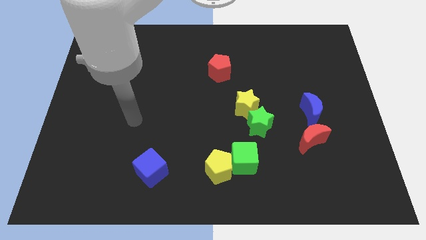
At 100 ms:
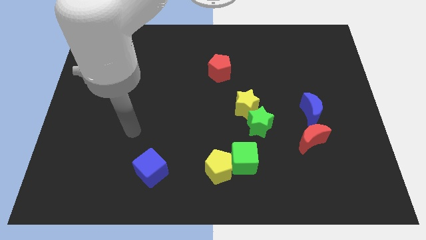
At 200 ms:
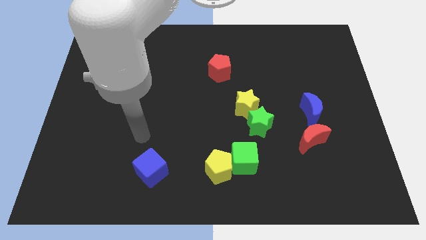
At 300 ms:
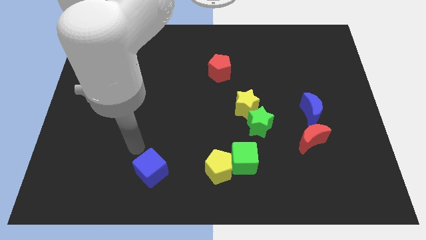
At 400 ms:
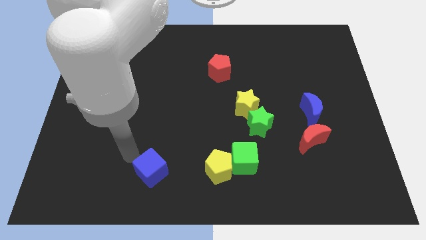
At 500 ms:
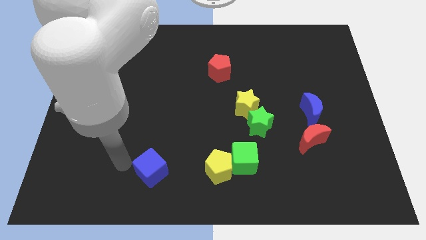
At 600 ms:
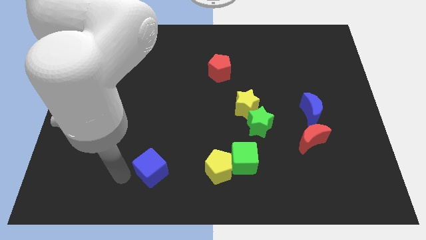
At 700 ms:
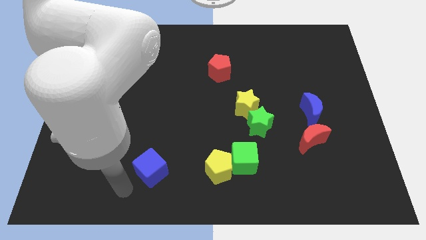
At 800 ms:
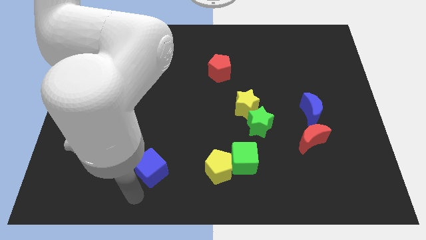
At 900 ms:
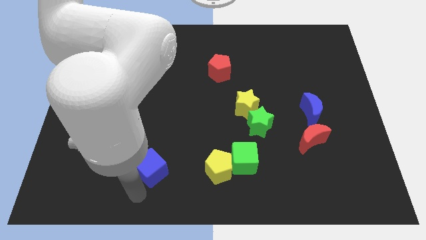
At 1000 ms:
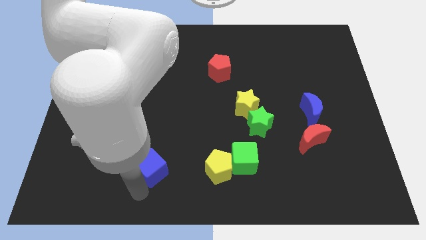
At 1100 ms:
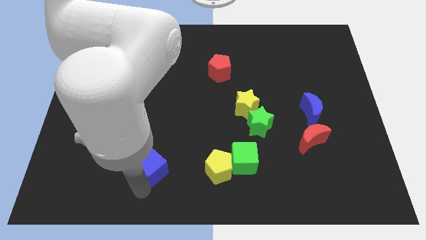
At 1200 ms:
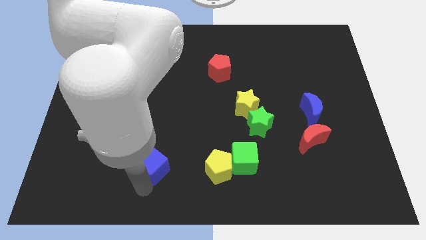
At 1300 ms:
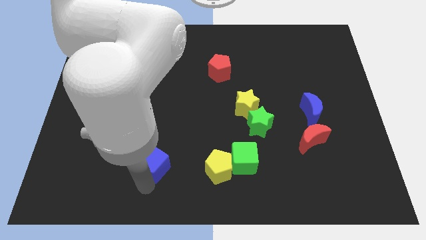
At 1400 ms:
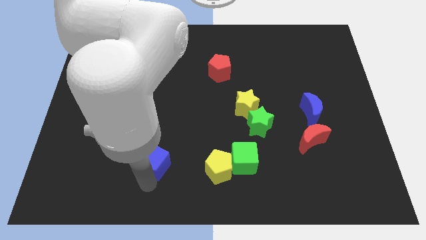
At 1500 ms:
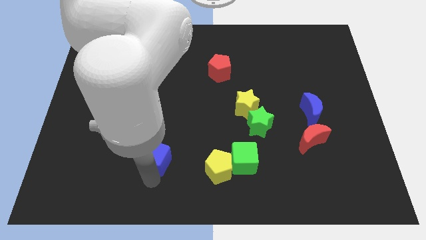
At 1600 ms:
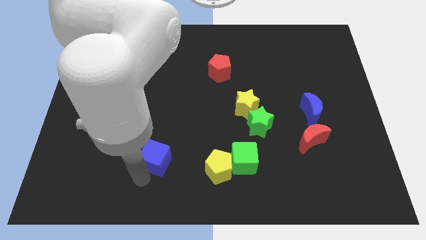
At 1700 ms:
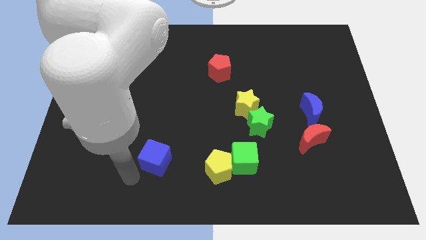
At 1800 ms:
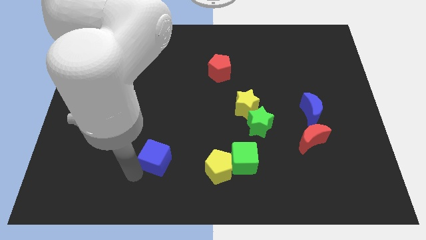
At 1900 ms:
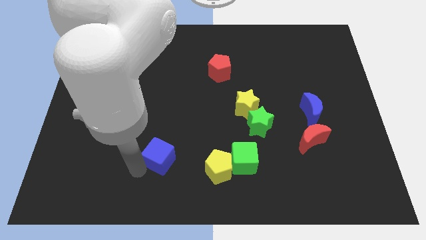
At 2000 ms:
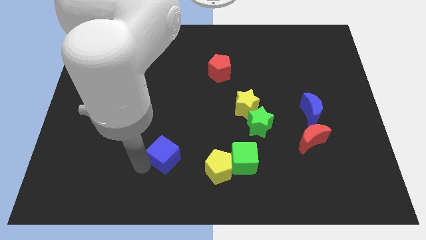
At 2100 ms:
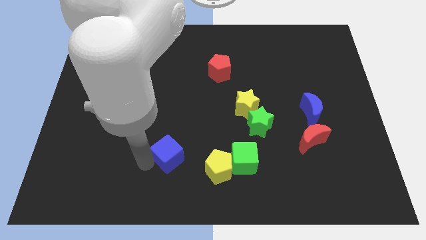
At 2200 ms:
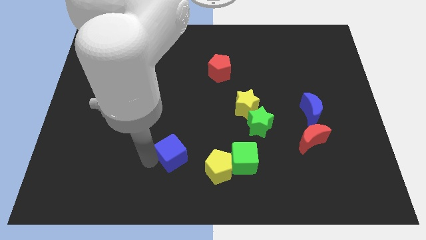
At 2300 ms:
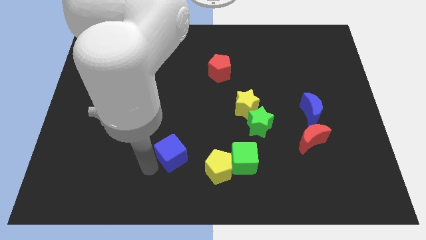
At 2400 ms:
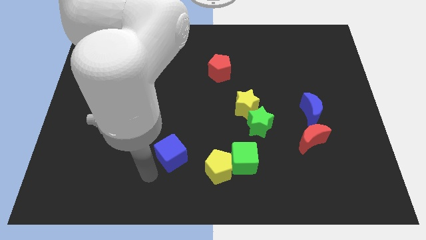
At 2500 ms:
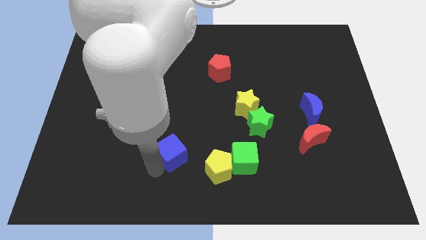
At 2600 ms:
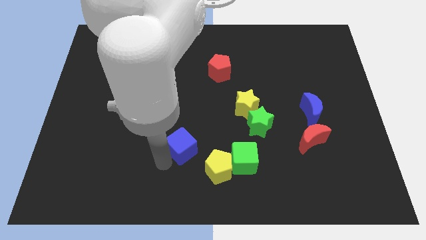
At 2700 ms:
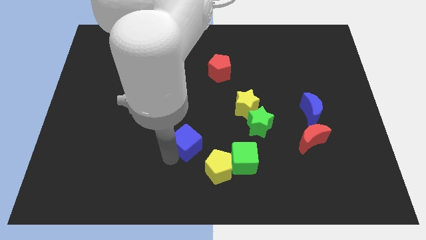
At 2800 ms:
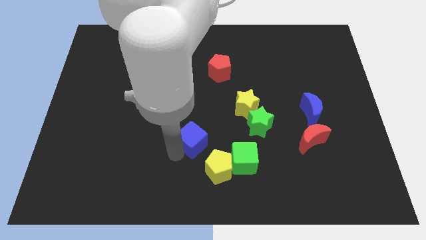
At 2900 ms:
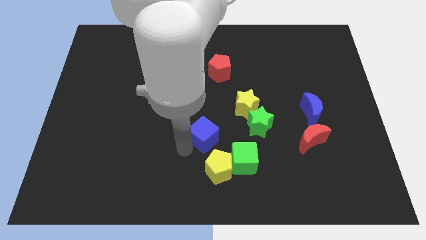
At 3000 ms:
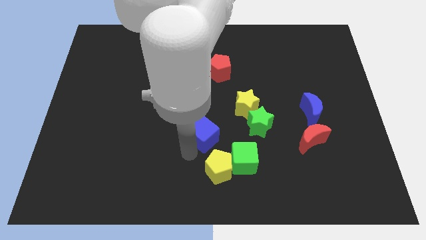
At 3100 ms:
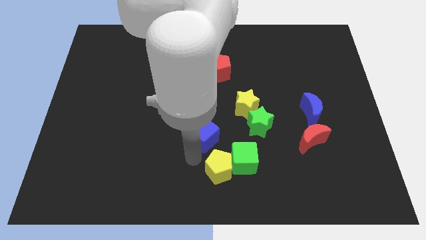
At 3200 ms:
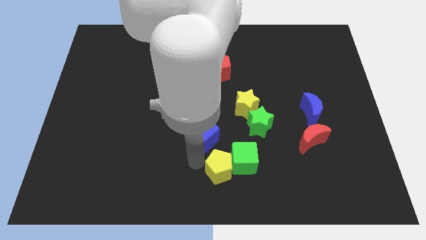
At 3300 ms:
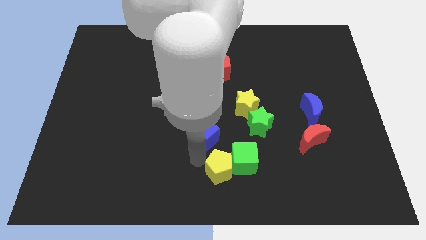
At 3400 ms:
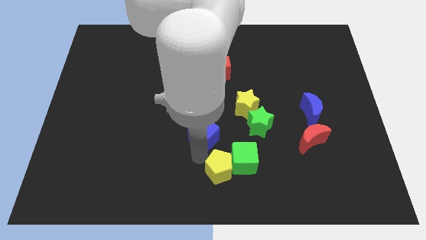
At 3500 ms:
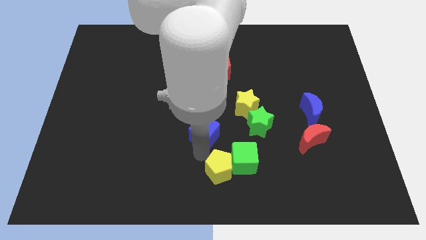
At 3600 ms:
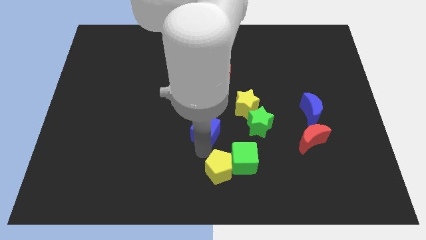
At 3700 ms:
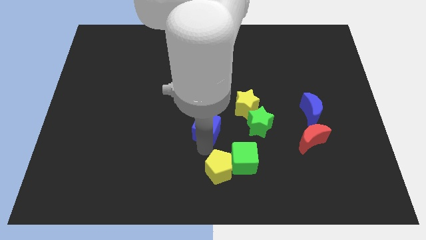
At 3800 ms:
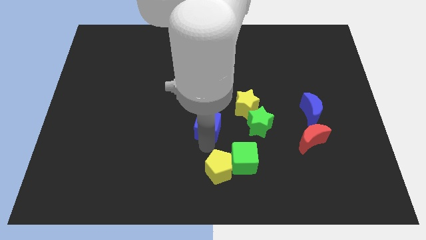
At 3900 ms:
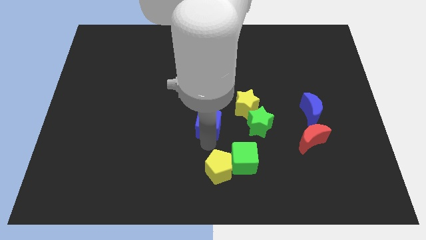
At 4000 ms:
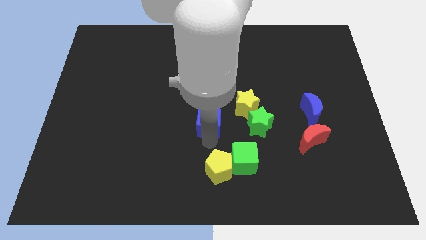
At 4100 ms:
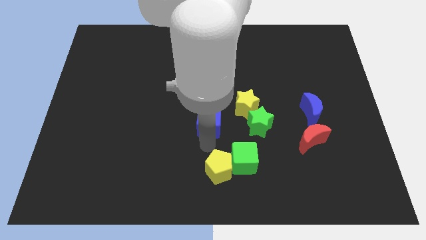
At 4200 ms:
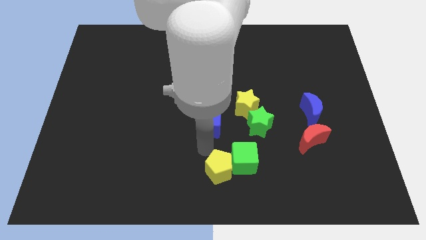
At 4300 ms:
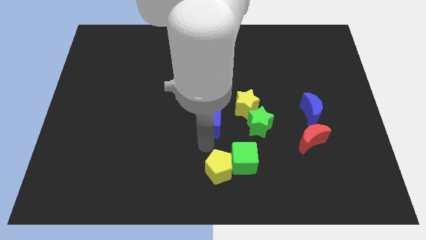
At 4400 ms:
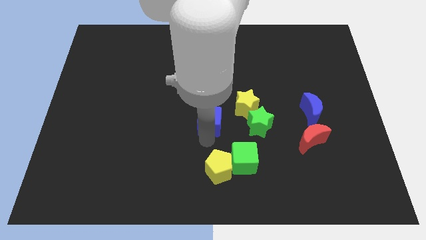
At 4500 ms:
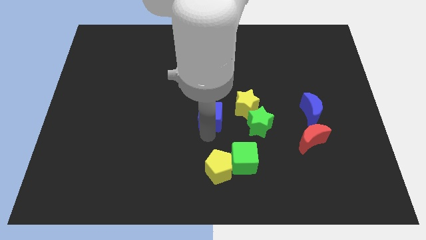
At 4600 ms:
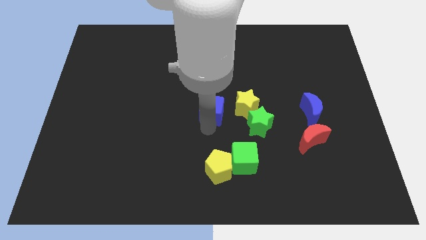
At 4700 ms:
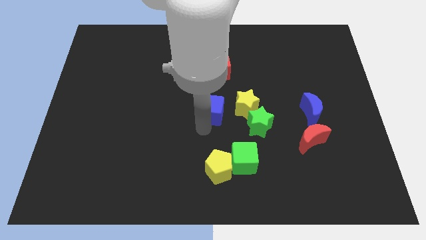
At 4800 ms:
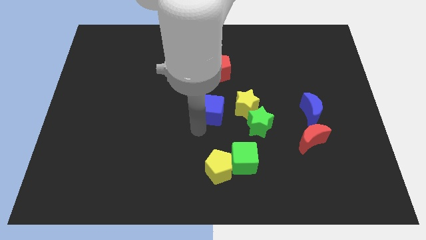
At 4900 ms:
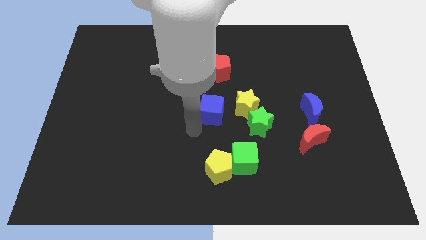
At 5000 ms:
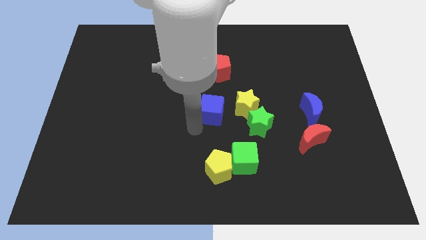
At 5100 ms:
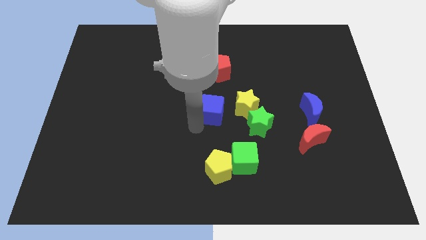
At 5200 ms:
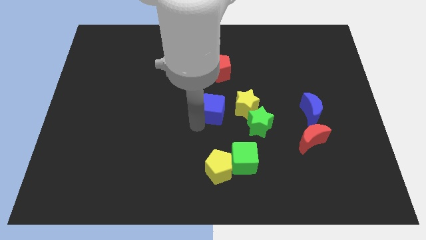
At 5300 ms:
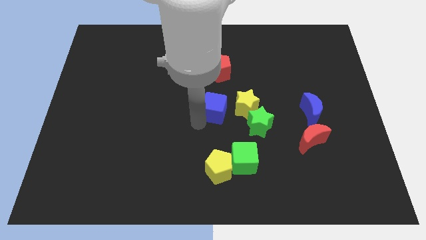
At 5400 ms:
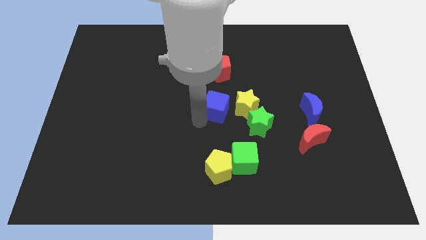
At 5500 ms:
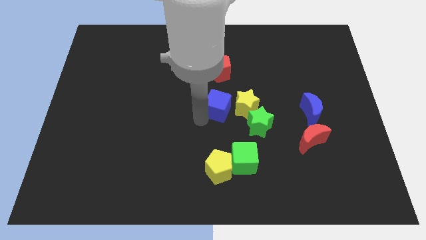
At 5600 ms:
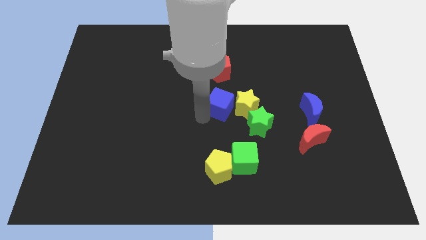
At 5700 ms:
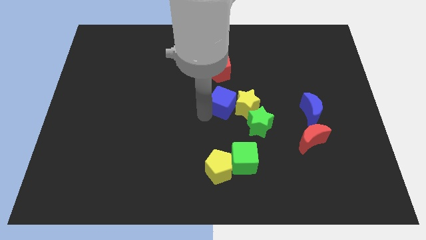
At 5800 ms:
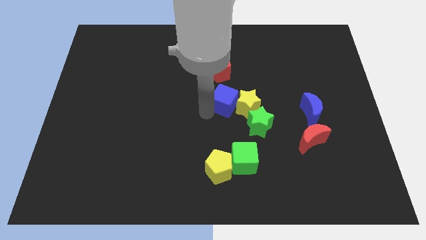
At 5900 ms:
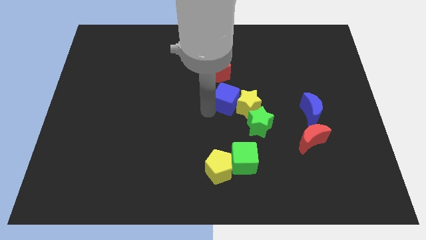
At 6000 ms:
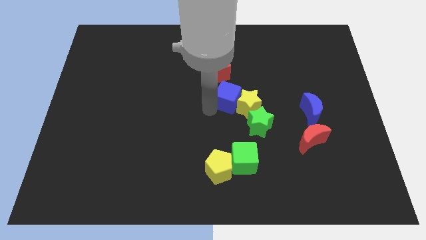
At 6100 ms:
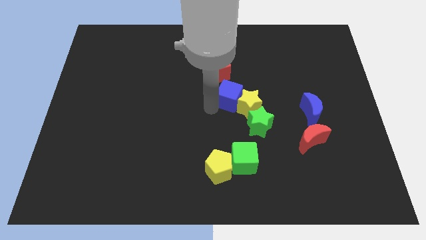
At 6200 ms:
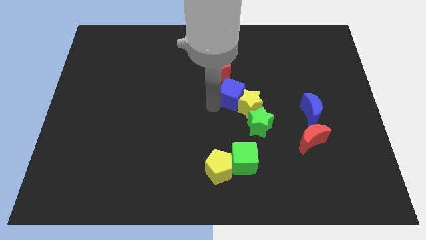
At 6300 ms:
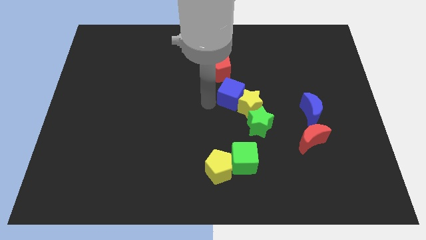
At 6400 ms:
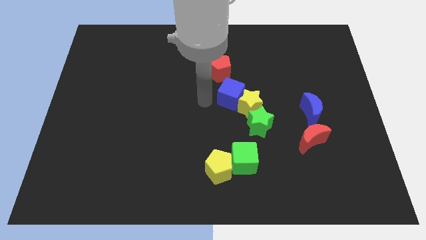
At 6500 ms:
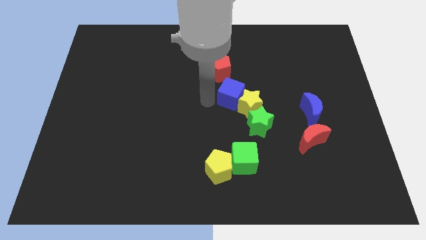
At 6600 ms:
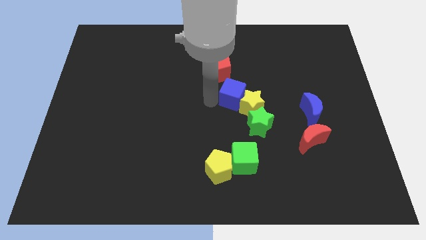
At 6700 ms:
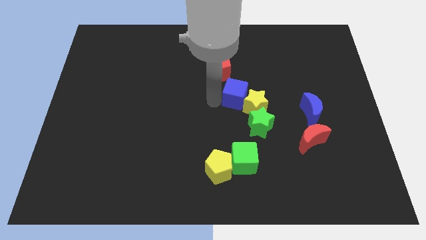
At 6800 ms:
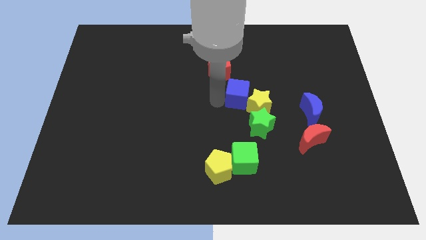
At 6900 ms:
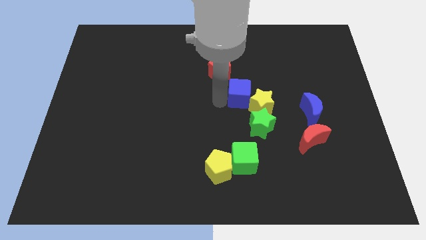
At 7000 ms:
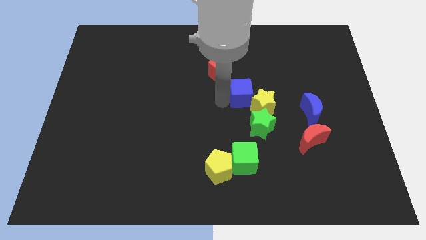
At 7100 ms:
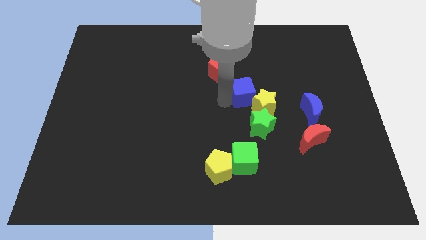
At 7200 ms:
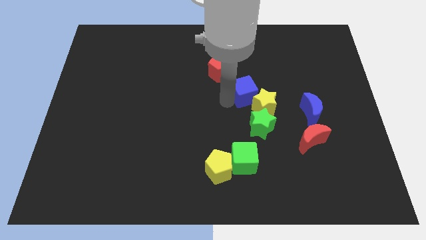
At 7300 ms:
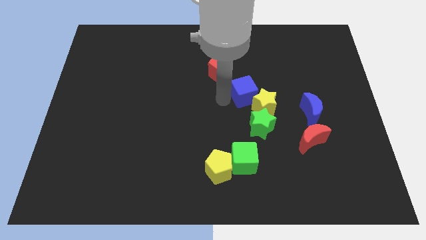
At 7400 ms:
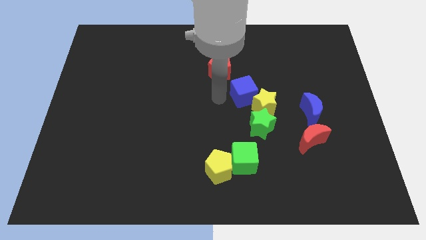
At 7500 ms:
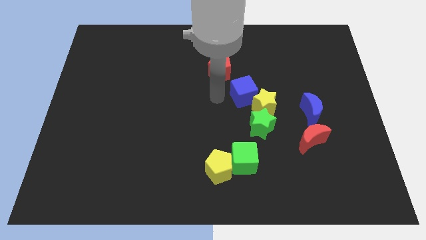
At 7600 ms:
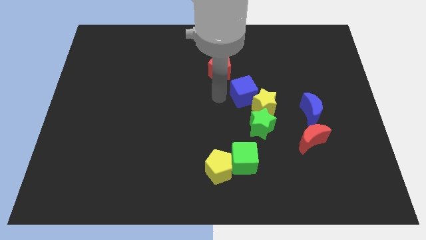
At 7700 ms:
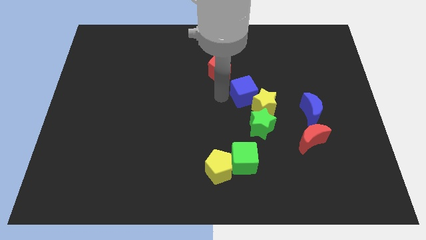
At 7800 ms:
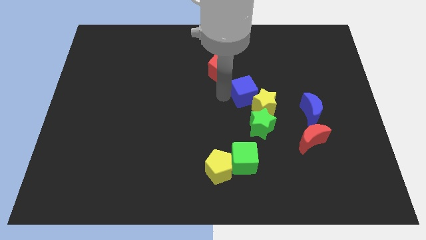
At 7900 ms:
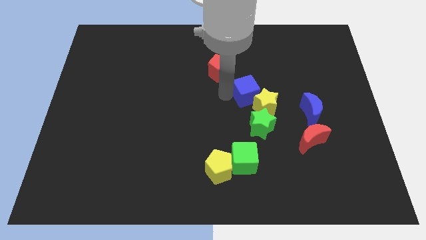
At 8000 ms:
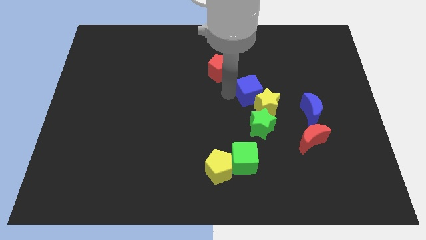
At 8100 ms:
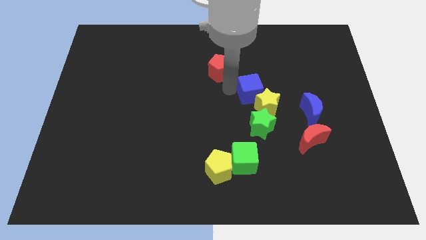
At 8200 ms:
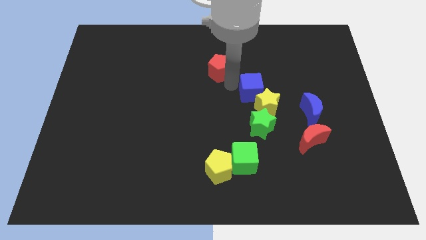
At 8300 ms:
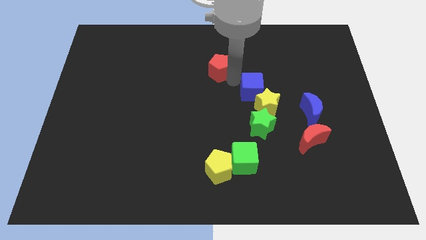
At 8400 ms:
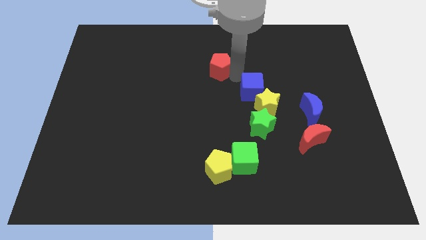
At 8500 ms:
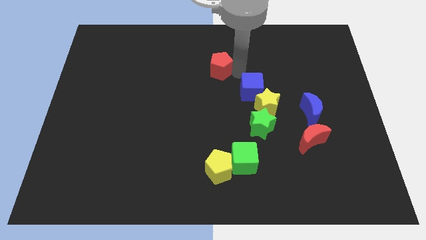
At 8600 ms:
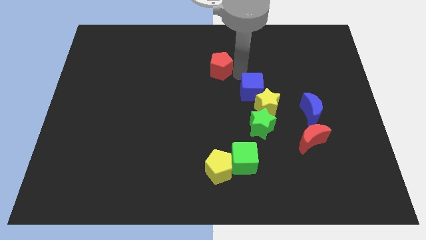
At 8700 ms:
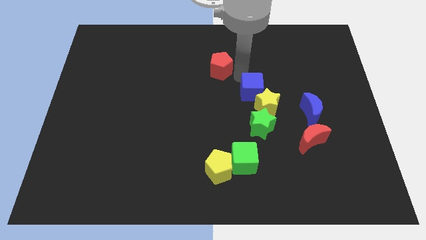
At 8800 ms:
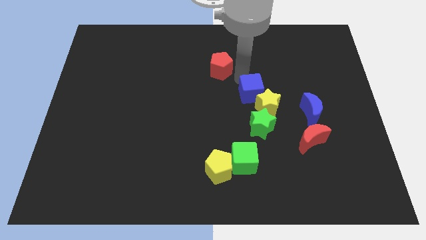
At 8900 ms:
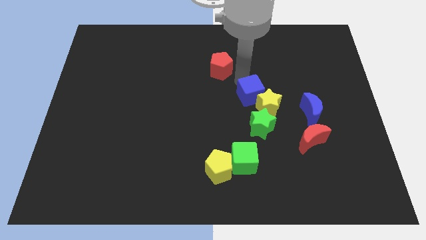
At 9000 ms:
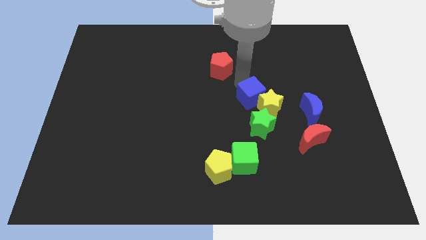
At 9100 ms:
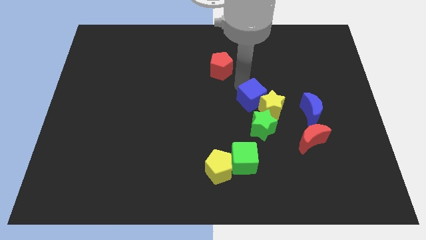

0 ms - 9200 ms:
slide the blue cube just left of the blue moon
